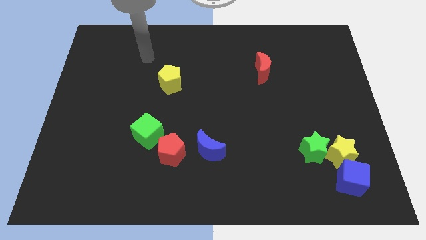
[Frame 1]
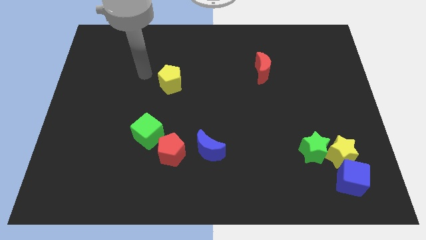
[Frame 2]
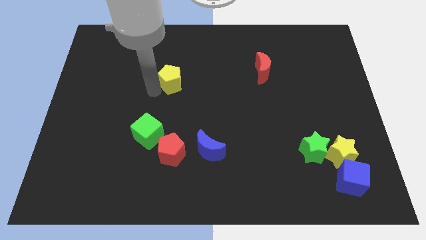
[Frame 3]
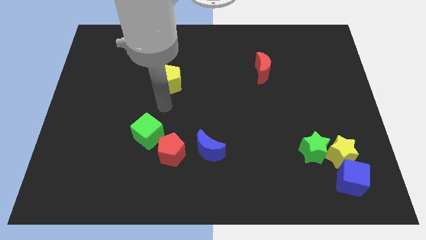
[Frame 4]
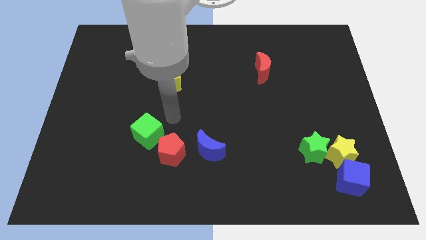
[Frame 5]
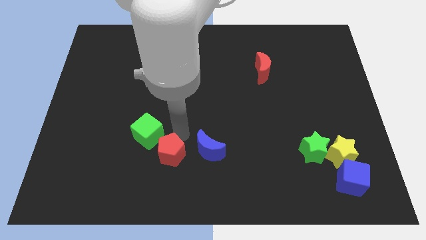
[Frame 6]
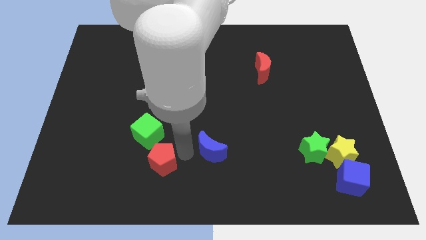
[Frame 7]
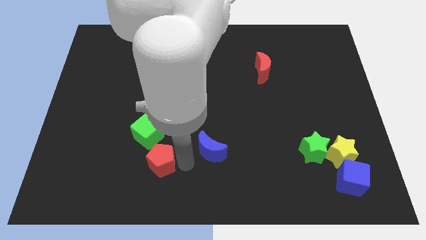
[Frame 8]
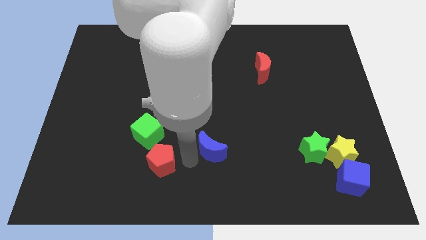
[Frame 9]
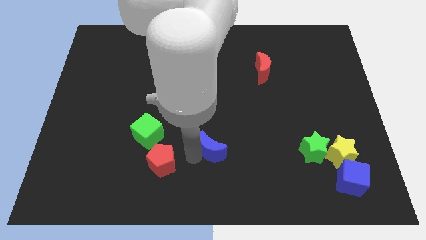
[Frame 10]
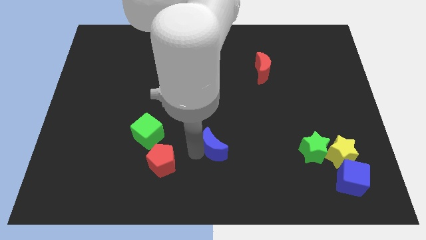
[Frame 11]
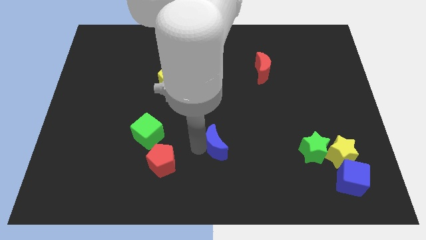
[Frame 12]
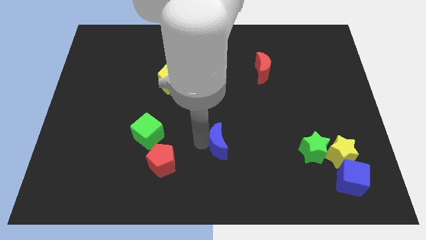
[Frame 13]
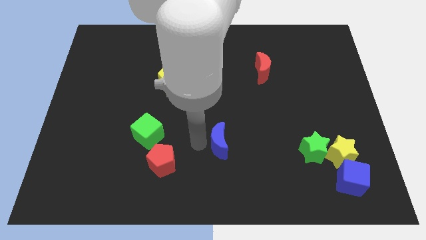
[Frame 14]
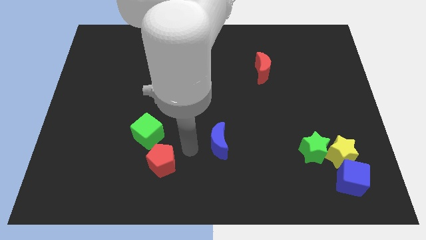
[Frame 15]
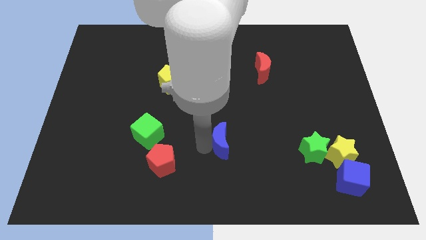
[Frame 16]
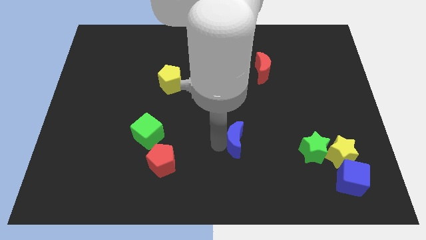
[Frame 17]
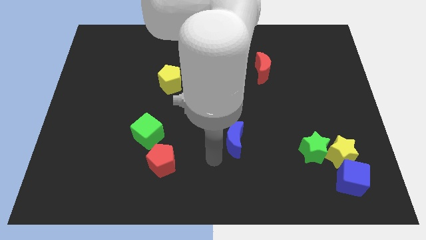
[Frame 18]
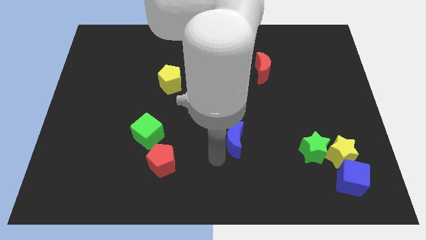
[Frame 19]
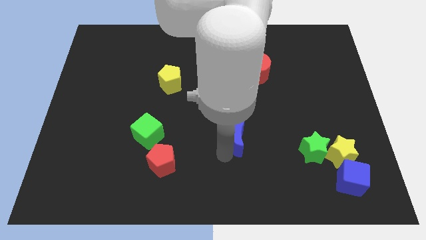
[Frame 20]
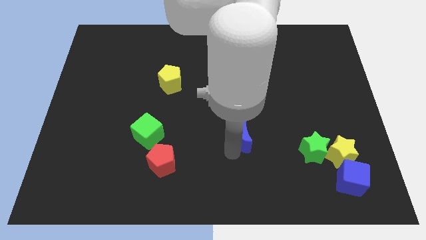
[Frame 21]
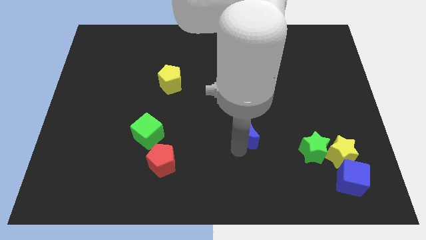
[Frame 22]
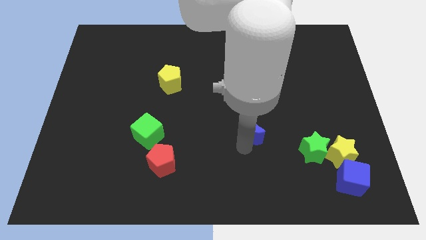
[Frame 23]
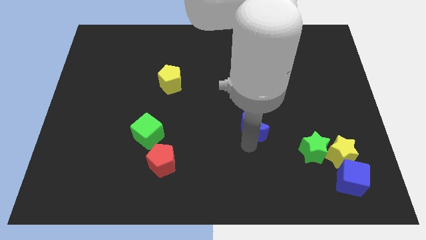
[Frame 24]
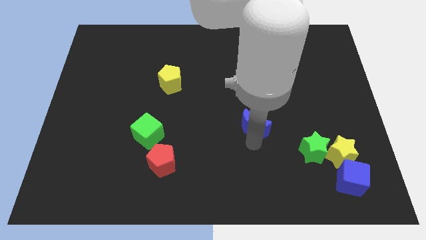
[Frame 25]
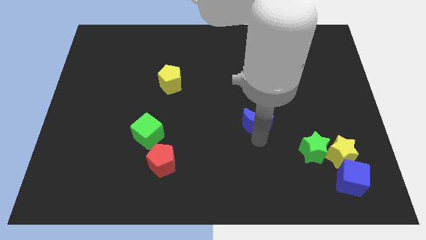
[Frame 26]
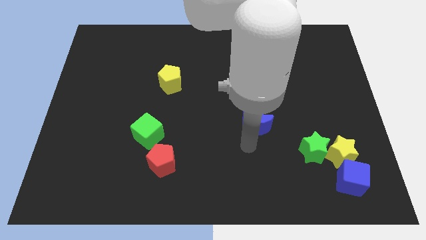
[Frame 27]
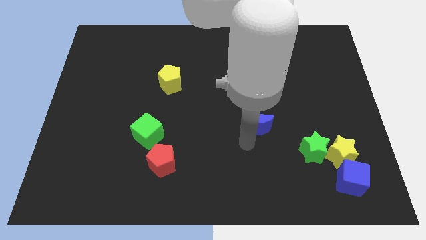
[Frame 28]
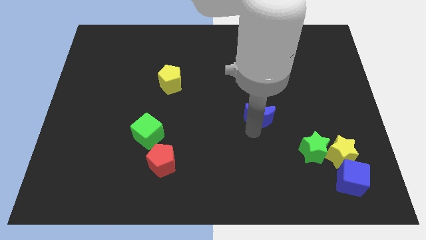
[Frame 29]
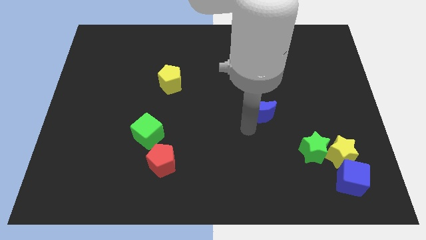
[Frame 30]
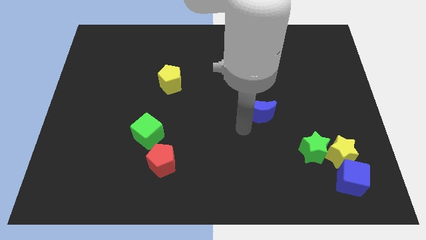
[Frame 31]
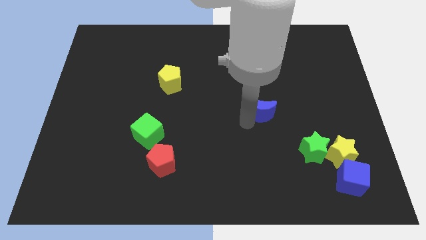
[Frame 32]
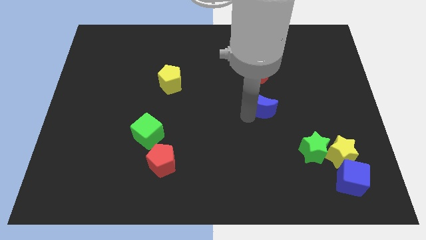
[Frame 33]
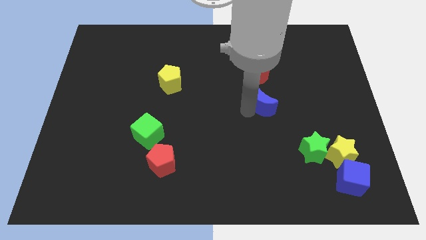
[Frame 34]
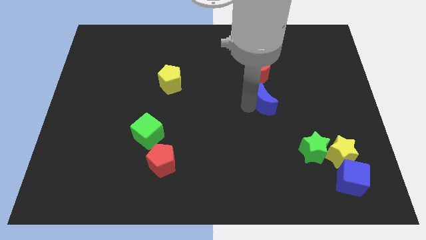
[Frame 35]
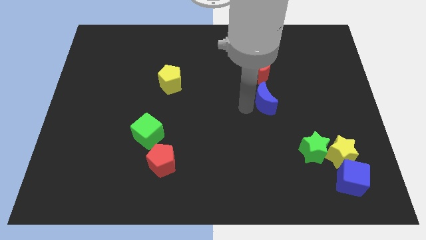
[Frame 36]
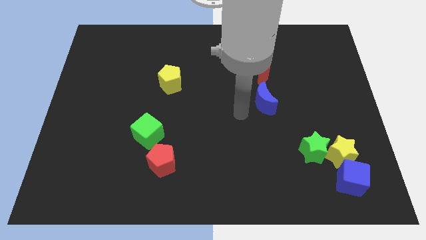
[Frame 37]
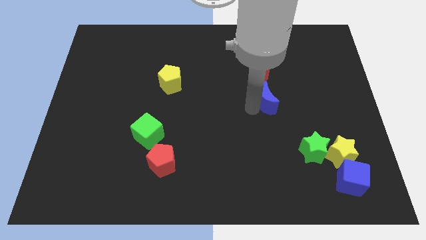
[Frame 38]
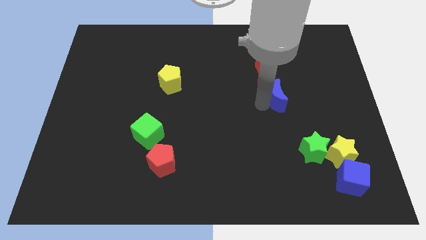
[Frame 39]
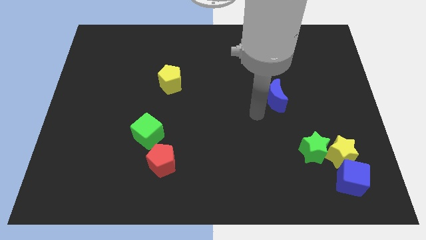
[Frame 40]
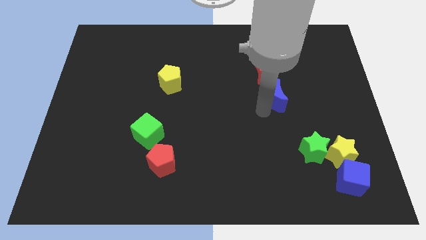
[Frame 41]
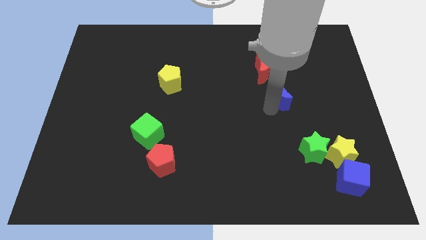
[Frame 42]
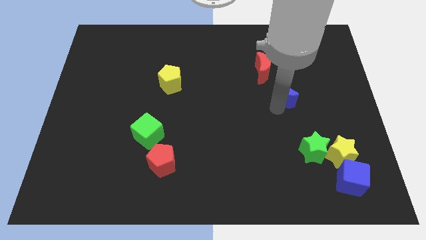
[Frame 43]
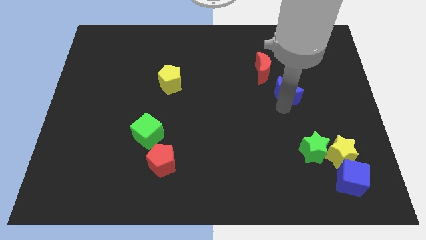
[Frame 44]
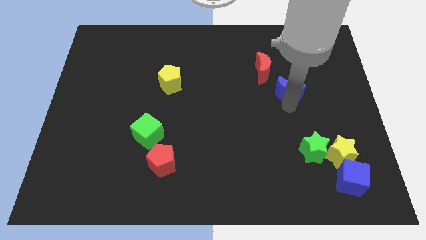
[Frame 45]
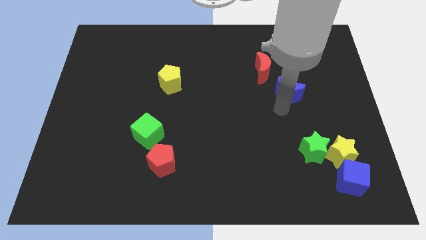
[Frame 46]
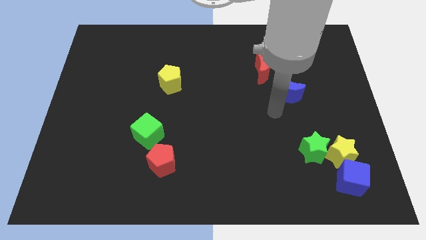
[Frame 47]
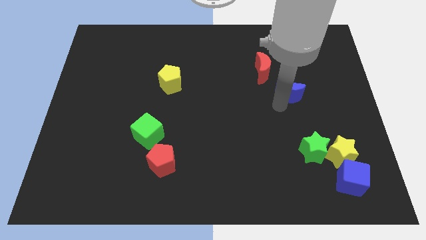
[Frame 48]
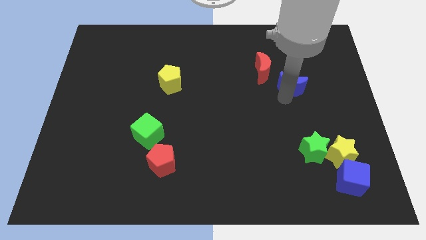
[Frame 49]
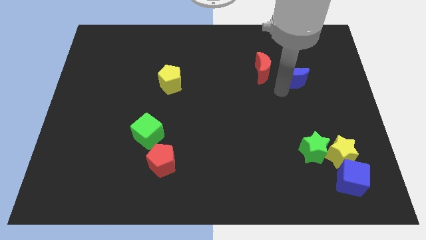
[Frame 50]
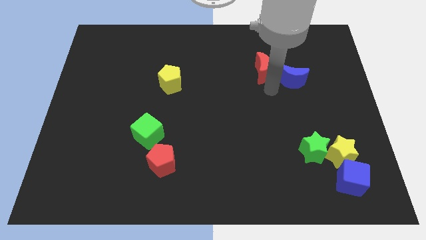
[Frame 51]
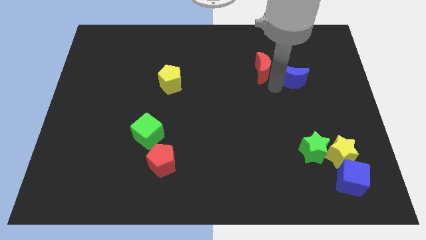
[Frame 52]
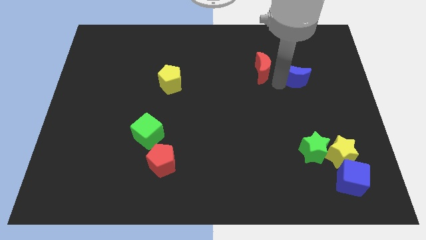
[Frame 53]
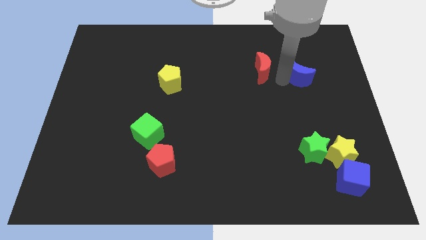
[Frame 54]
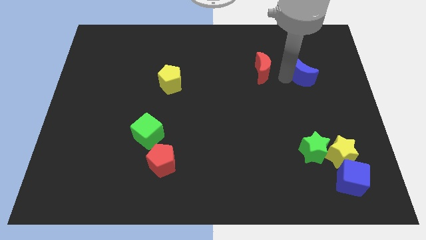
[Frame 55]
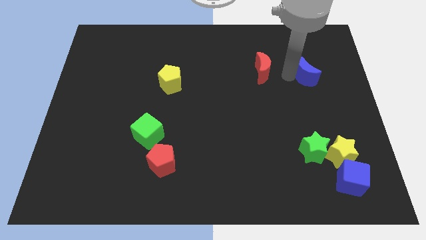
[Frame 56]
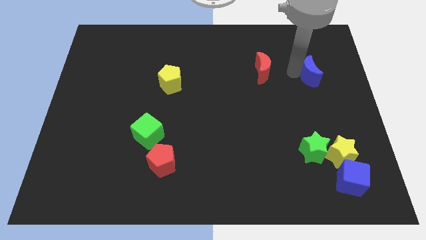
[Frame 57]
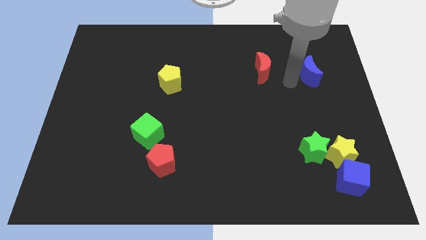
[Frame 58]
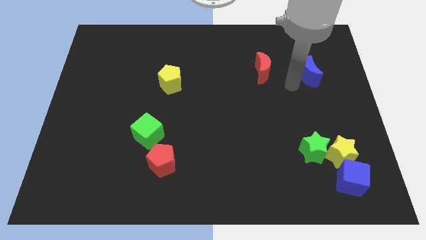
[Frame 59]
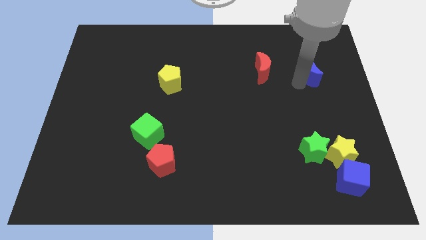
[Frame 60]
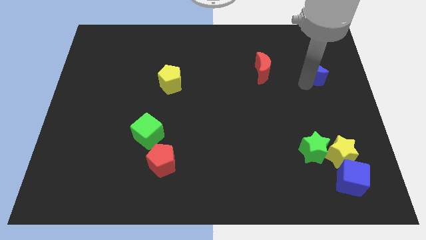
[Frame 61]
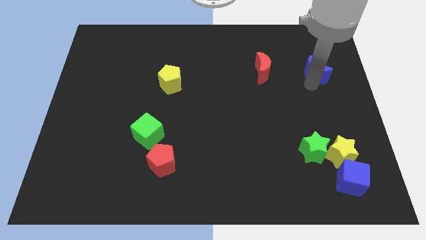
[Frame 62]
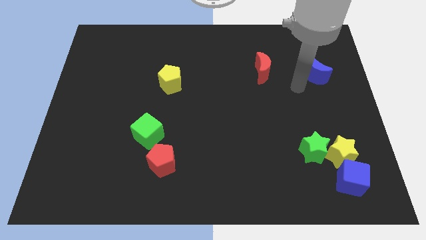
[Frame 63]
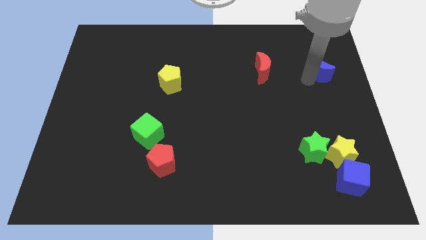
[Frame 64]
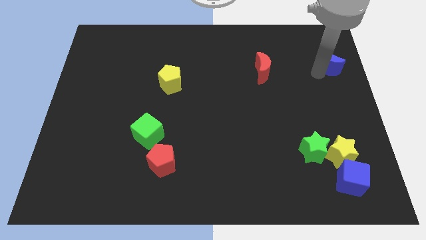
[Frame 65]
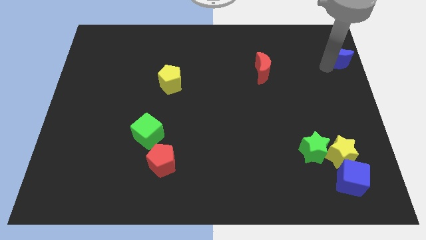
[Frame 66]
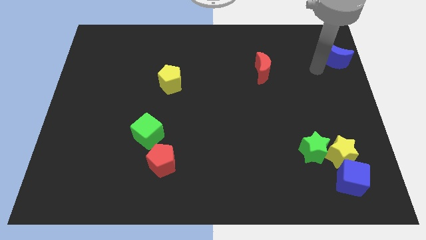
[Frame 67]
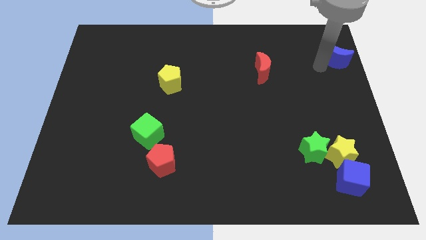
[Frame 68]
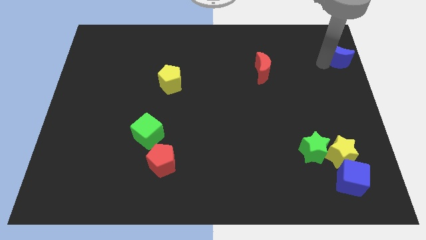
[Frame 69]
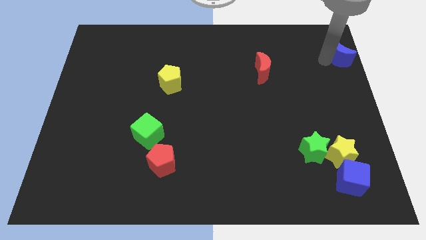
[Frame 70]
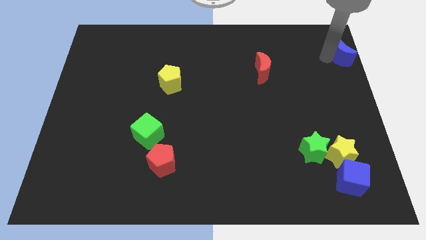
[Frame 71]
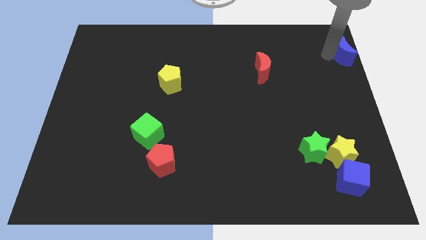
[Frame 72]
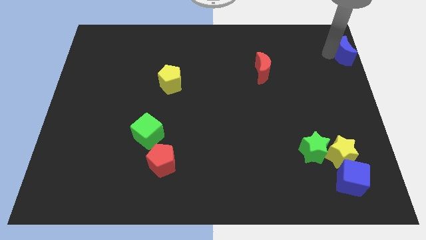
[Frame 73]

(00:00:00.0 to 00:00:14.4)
slide the blue moon to the top right of the board

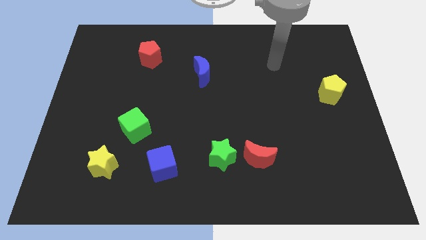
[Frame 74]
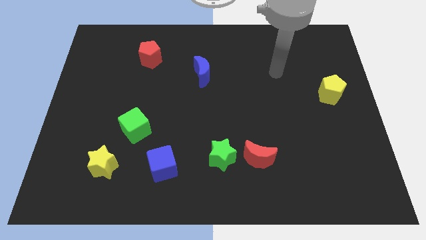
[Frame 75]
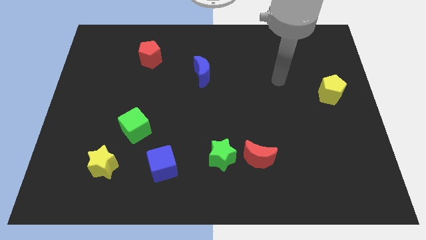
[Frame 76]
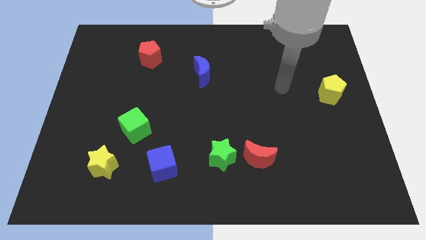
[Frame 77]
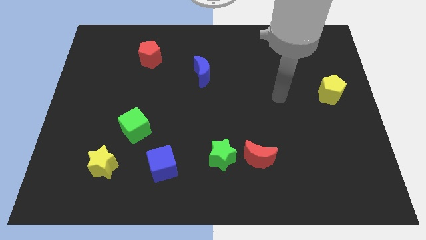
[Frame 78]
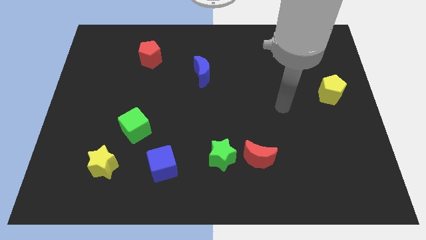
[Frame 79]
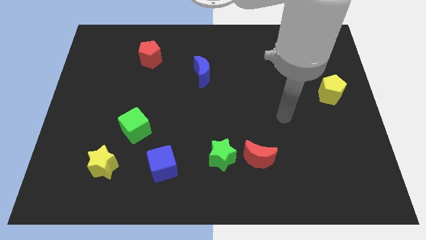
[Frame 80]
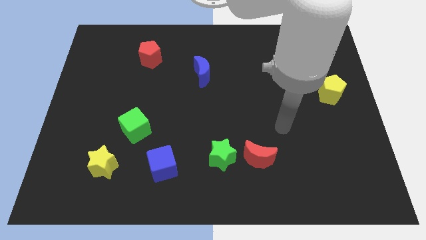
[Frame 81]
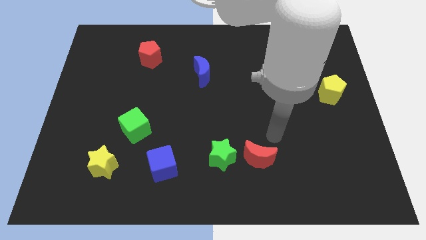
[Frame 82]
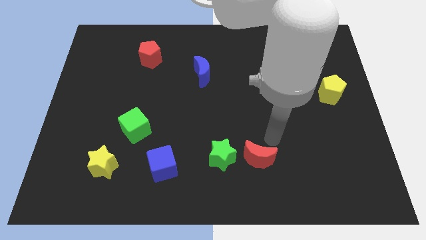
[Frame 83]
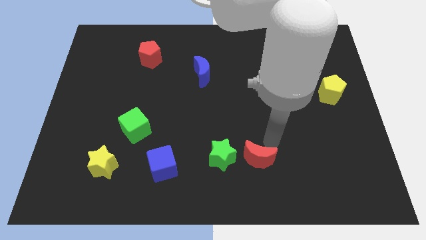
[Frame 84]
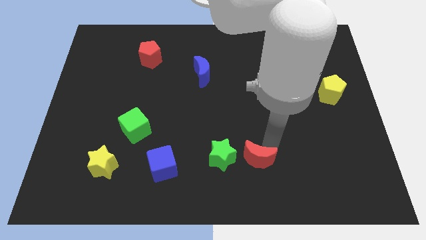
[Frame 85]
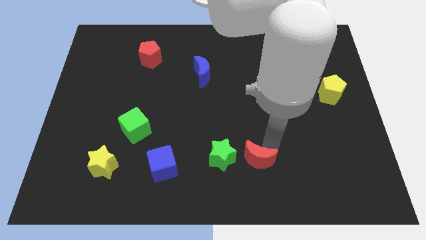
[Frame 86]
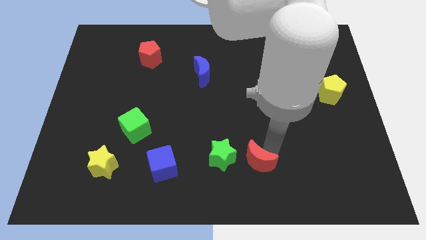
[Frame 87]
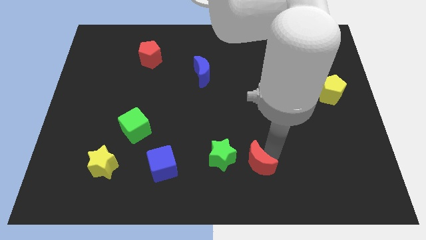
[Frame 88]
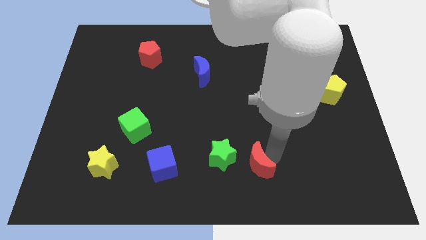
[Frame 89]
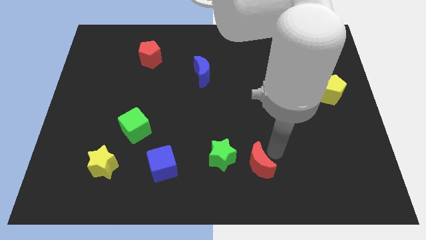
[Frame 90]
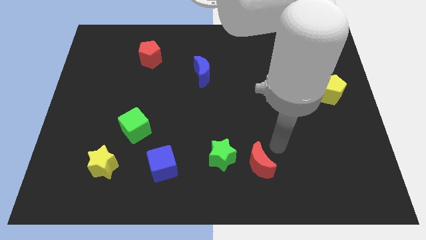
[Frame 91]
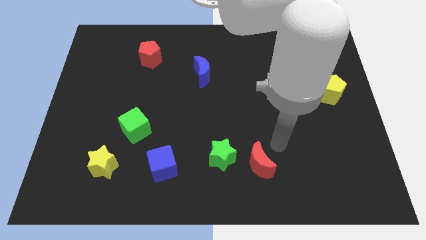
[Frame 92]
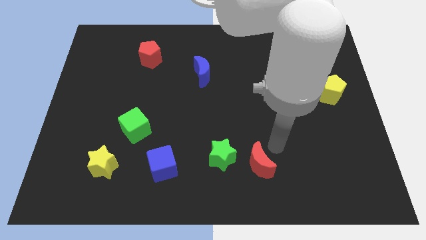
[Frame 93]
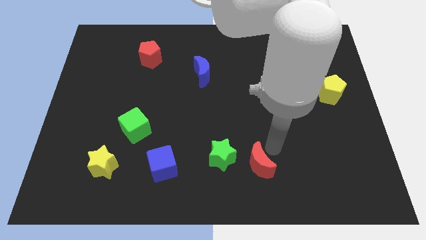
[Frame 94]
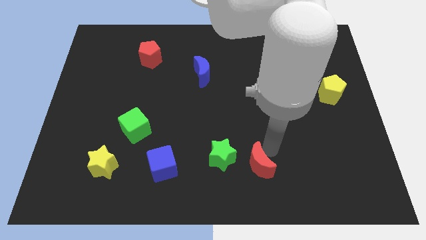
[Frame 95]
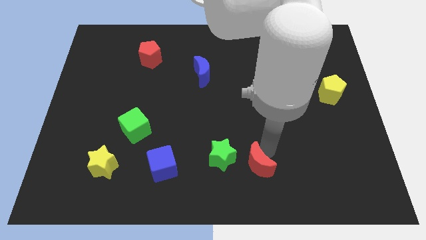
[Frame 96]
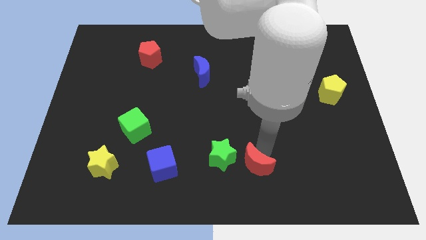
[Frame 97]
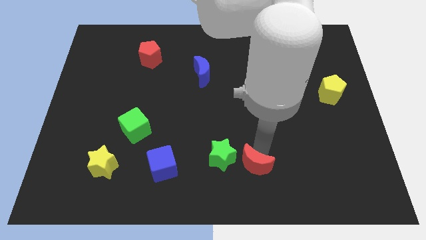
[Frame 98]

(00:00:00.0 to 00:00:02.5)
move the red moon to the bottom
